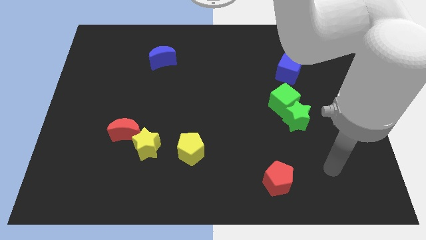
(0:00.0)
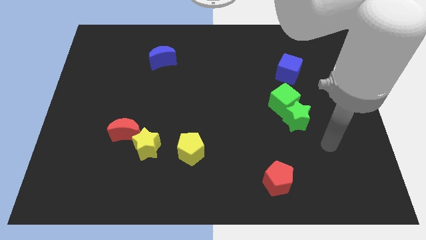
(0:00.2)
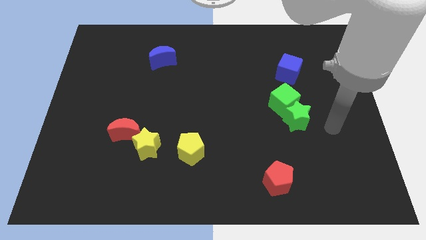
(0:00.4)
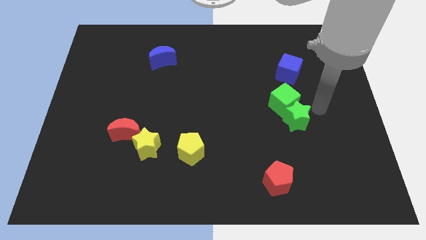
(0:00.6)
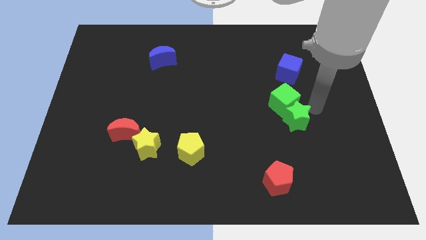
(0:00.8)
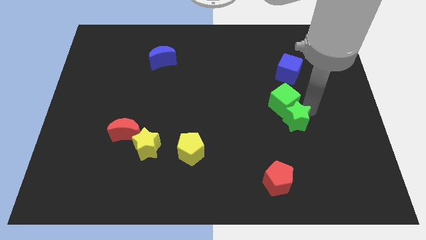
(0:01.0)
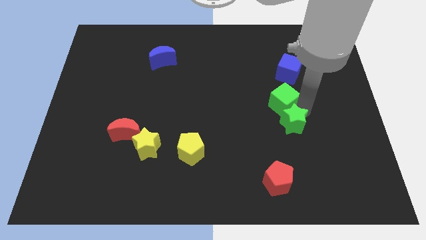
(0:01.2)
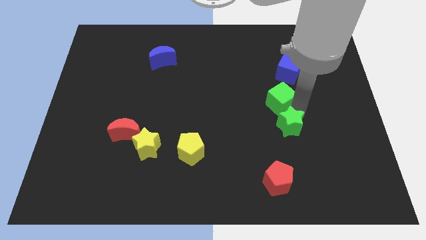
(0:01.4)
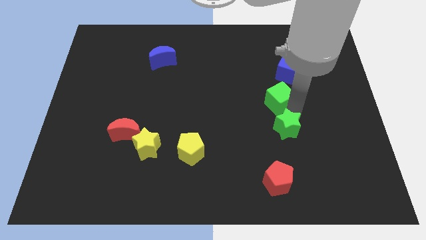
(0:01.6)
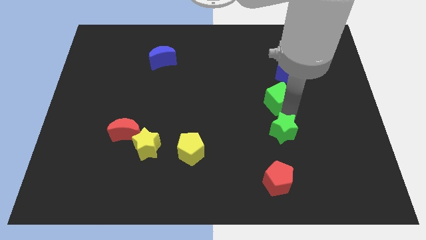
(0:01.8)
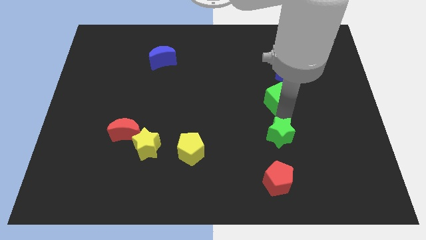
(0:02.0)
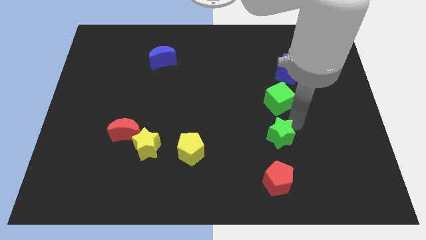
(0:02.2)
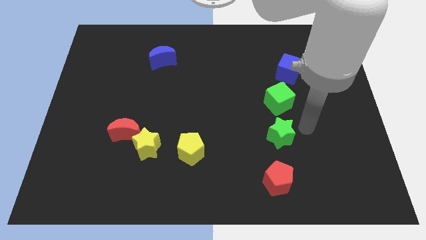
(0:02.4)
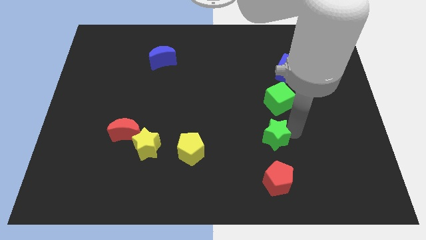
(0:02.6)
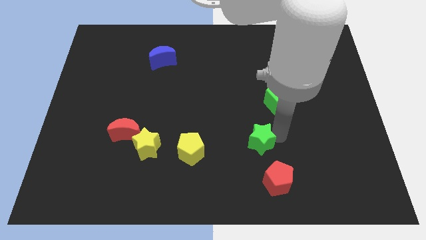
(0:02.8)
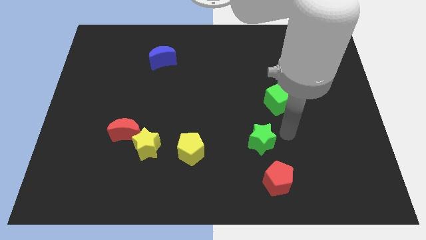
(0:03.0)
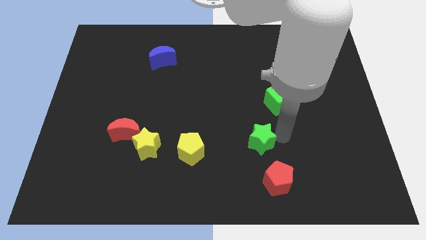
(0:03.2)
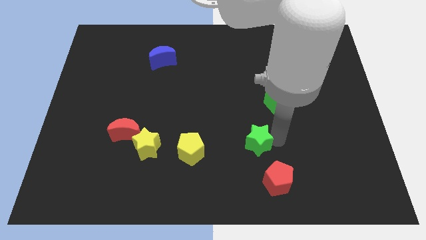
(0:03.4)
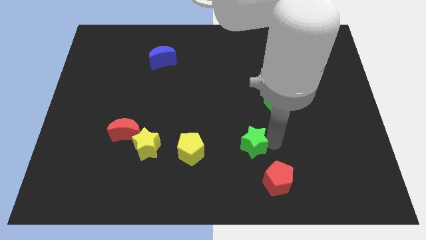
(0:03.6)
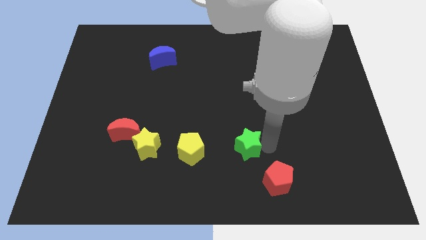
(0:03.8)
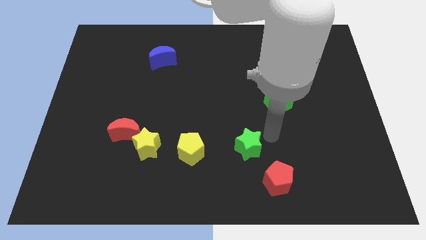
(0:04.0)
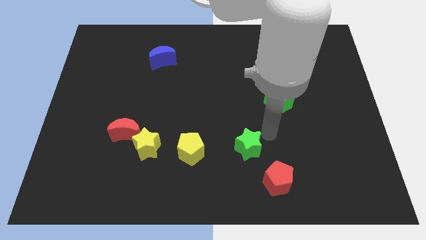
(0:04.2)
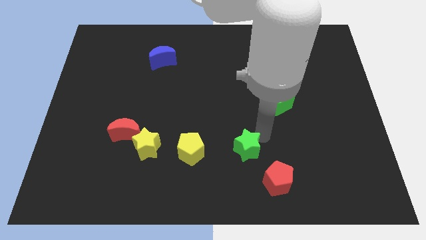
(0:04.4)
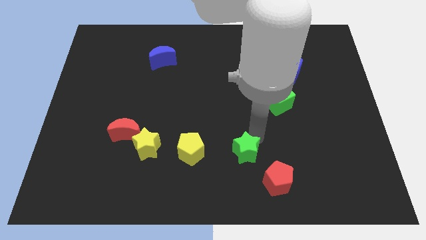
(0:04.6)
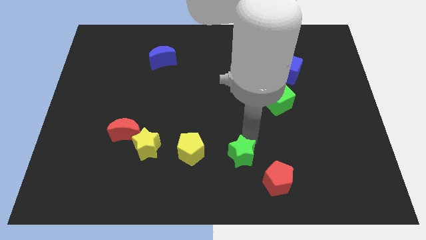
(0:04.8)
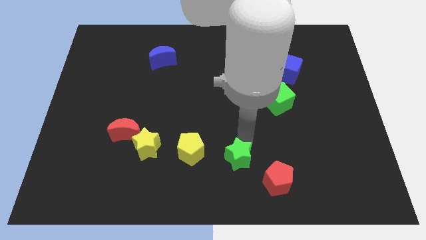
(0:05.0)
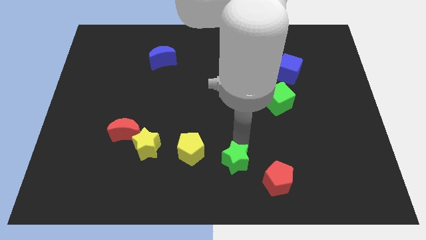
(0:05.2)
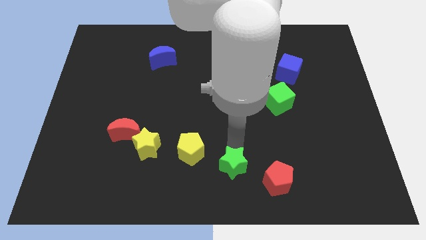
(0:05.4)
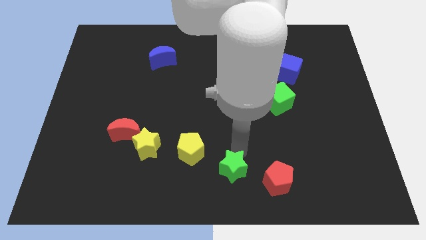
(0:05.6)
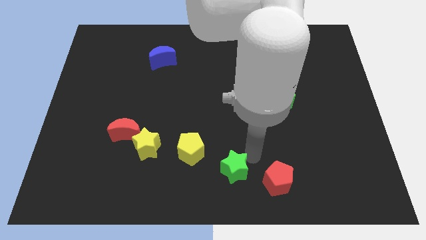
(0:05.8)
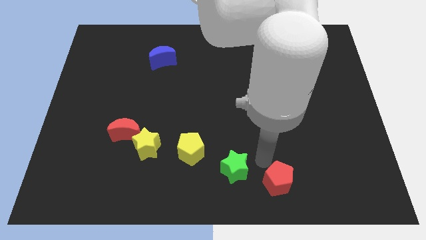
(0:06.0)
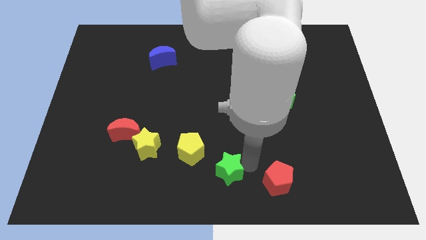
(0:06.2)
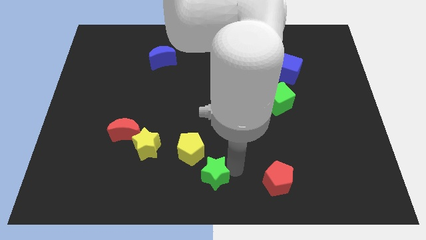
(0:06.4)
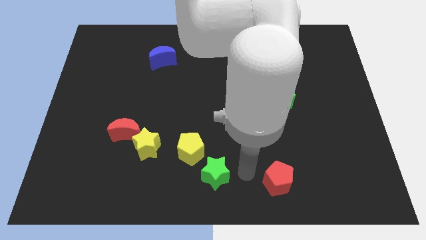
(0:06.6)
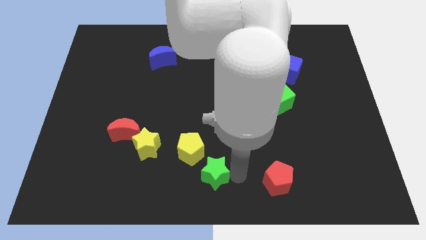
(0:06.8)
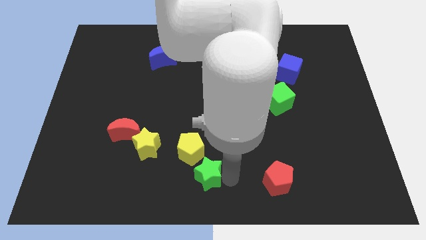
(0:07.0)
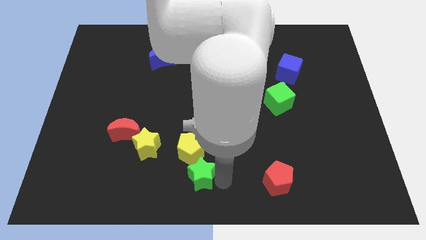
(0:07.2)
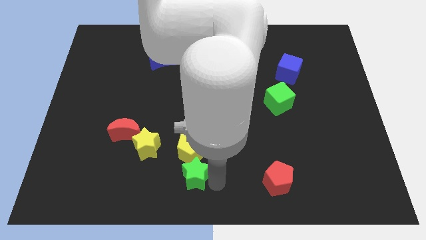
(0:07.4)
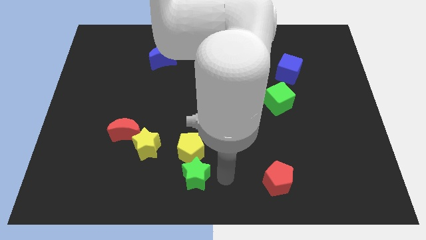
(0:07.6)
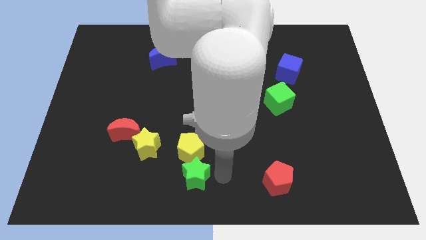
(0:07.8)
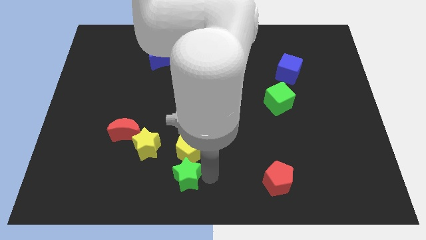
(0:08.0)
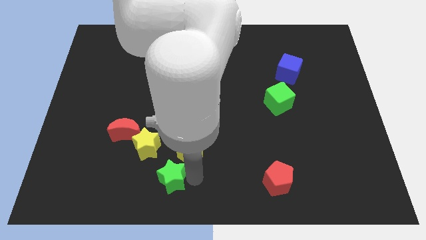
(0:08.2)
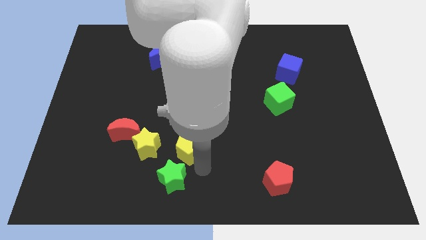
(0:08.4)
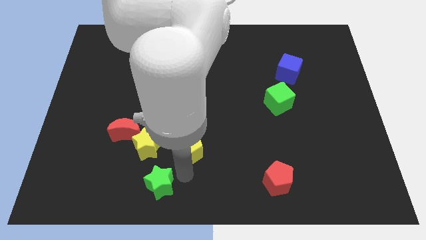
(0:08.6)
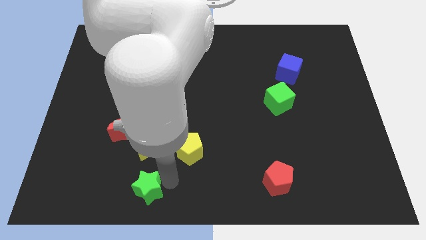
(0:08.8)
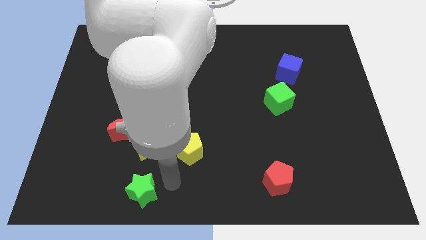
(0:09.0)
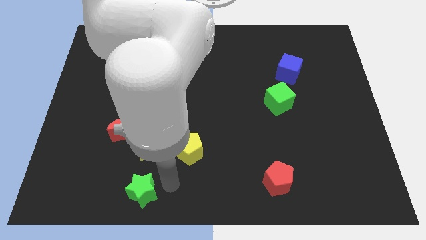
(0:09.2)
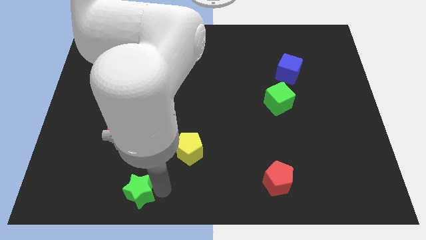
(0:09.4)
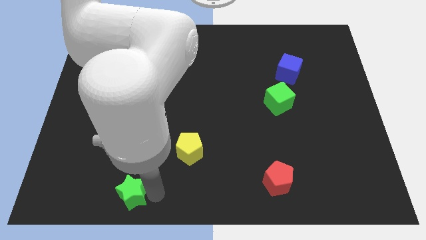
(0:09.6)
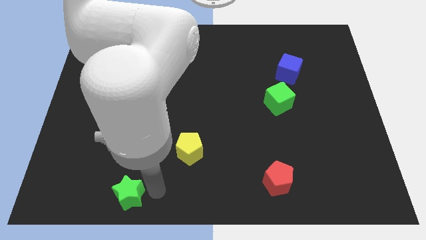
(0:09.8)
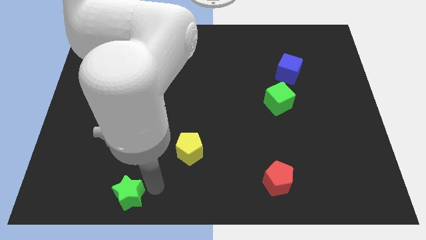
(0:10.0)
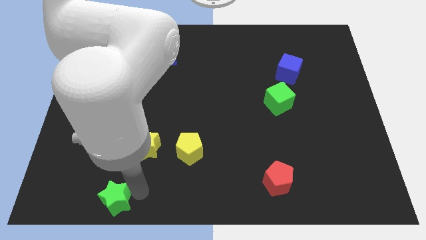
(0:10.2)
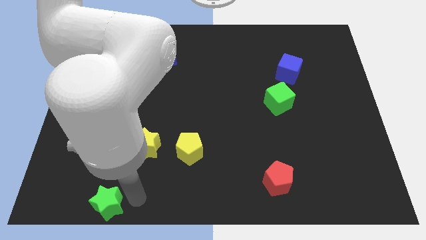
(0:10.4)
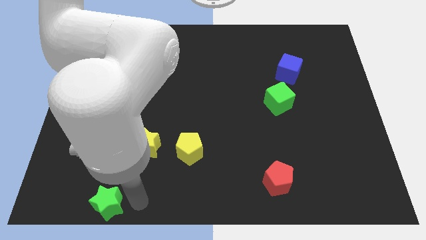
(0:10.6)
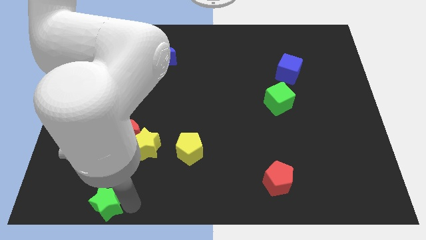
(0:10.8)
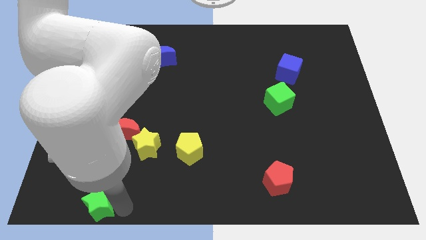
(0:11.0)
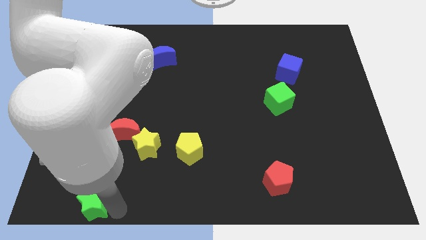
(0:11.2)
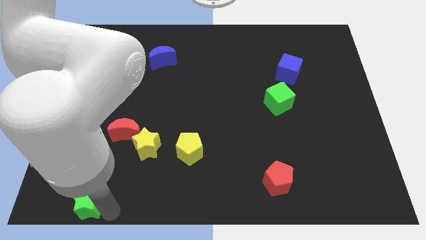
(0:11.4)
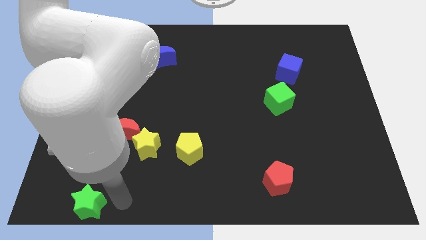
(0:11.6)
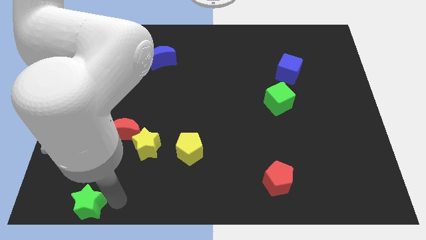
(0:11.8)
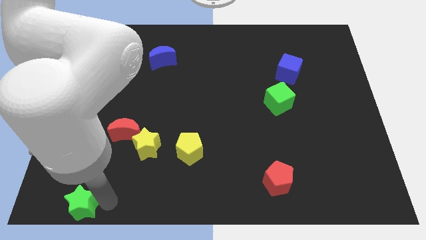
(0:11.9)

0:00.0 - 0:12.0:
push the green star to the bottom left of the board

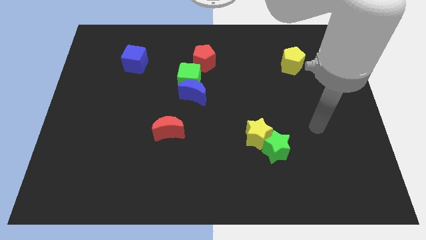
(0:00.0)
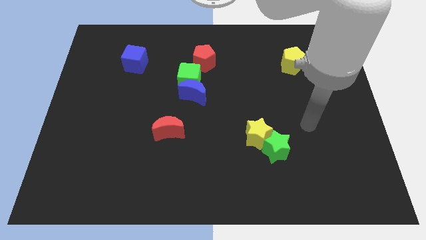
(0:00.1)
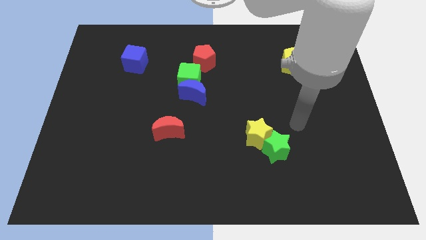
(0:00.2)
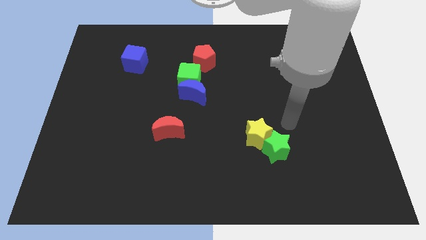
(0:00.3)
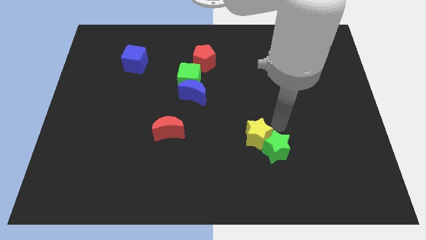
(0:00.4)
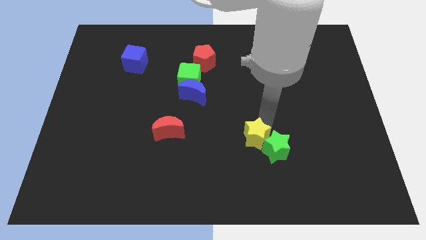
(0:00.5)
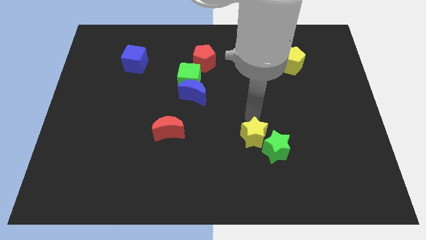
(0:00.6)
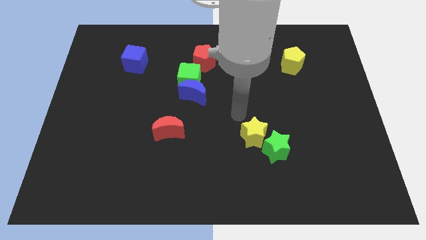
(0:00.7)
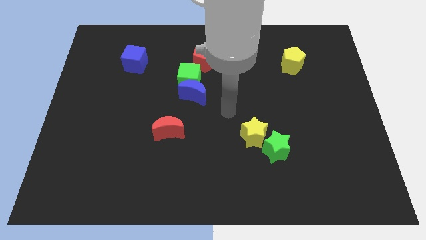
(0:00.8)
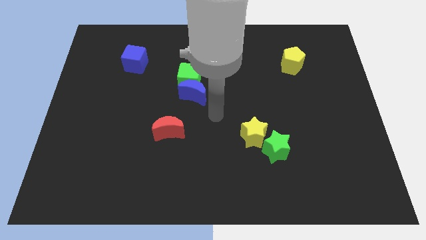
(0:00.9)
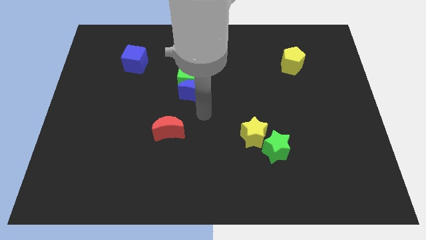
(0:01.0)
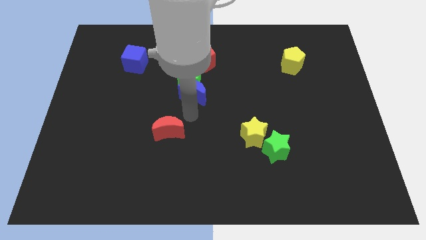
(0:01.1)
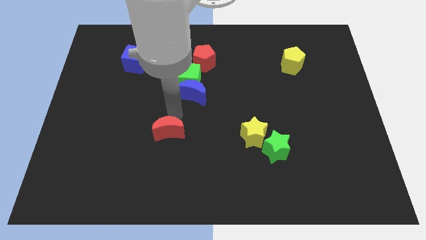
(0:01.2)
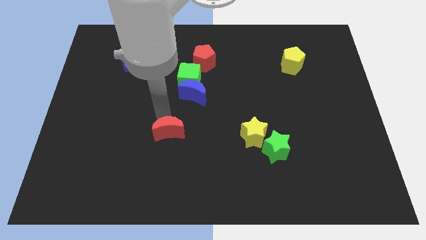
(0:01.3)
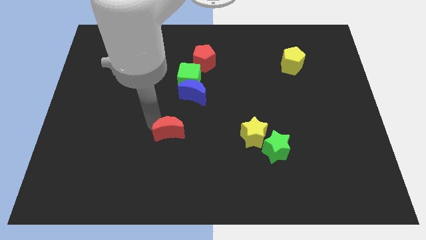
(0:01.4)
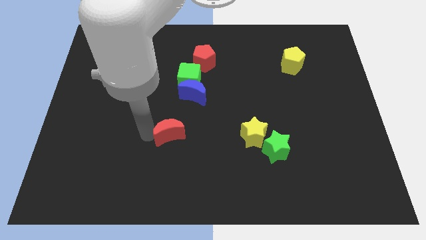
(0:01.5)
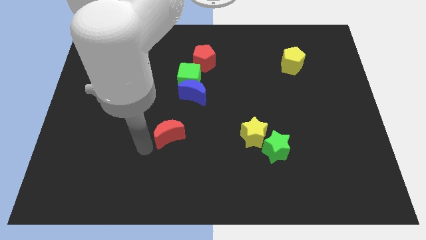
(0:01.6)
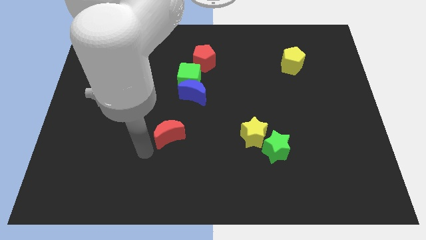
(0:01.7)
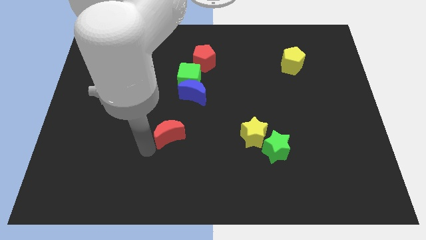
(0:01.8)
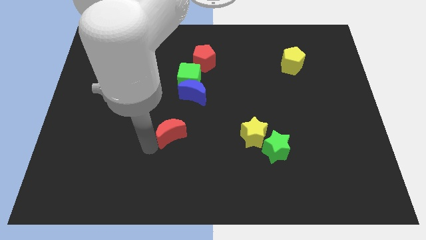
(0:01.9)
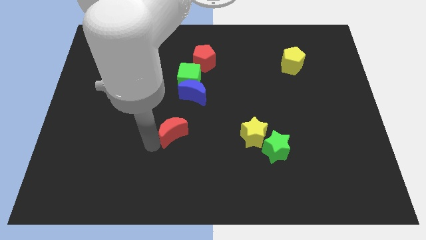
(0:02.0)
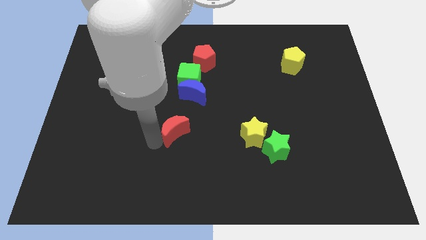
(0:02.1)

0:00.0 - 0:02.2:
slide the red moon to the middle of the board
